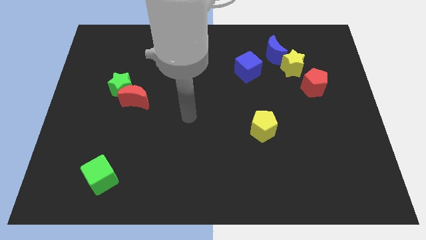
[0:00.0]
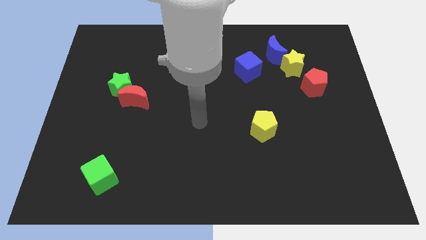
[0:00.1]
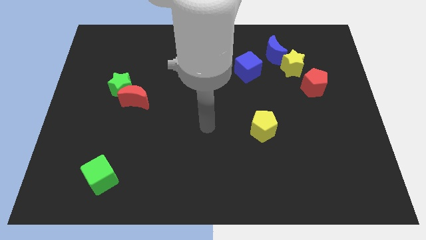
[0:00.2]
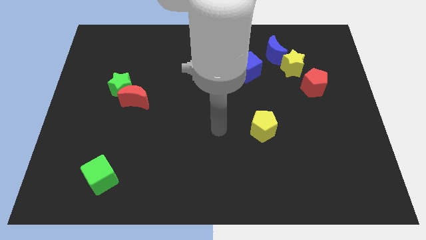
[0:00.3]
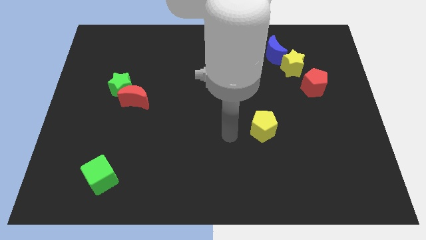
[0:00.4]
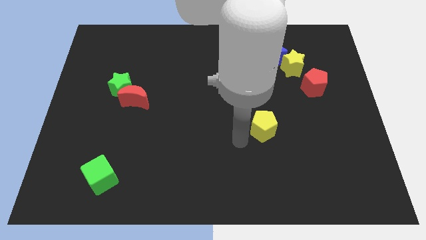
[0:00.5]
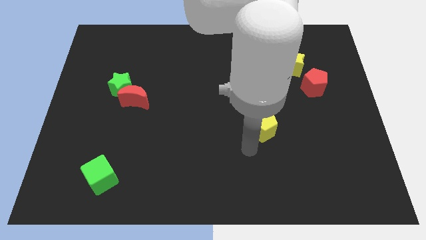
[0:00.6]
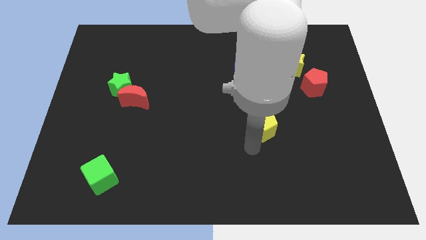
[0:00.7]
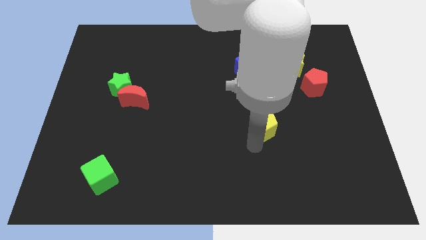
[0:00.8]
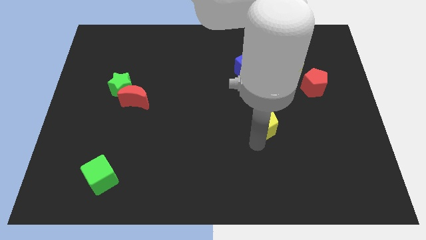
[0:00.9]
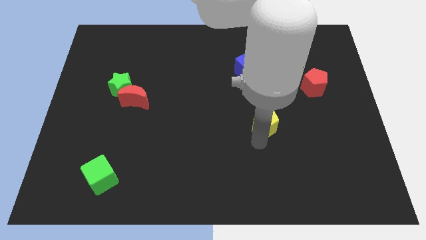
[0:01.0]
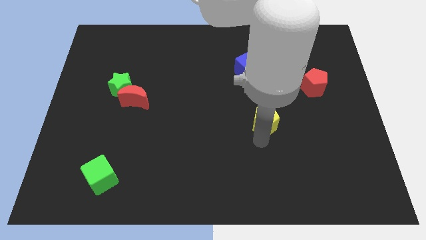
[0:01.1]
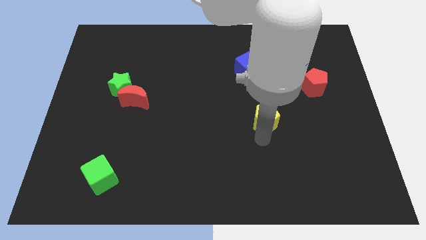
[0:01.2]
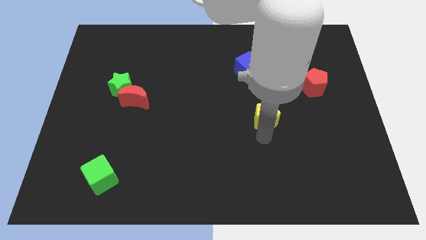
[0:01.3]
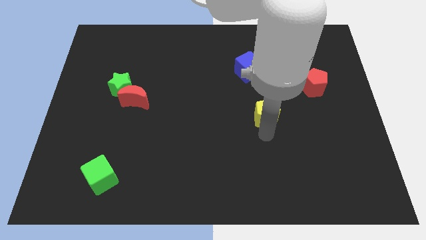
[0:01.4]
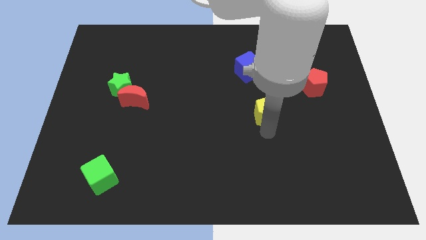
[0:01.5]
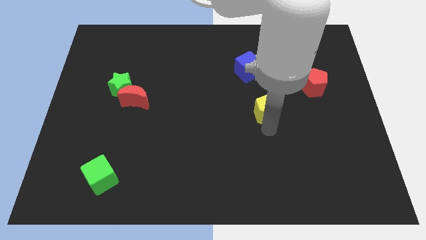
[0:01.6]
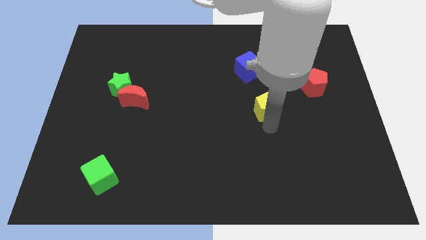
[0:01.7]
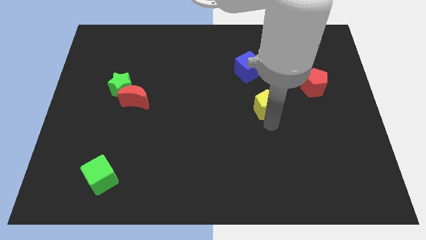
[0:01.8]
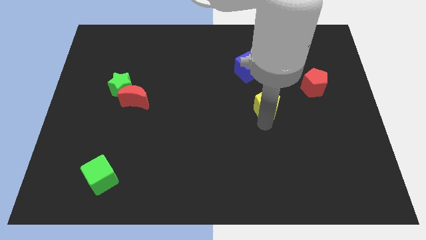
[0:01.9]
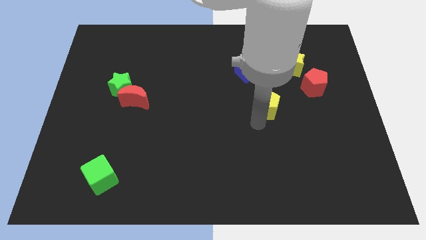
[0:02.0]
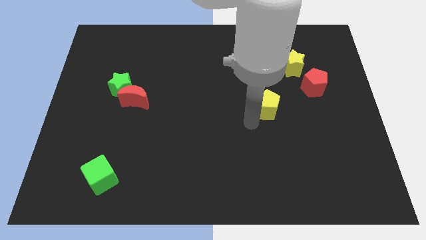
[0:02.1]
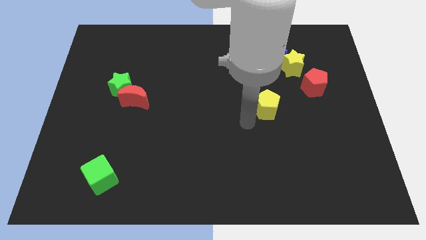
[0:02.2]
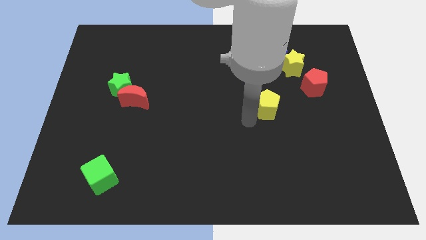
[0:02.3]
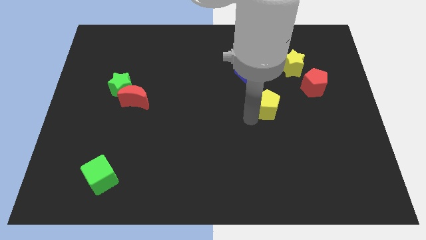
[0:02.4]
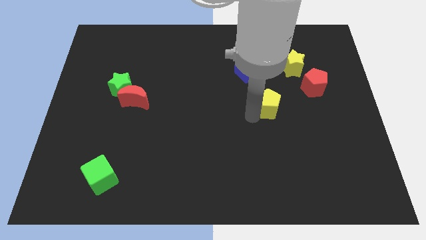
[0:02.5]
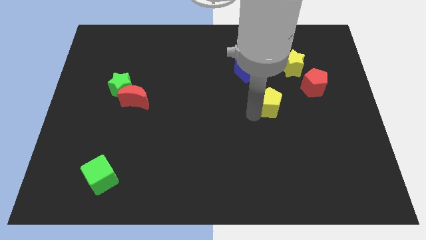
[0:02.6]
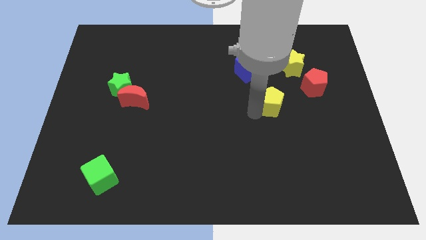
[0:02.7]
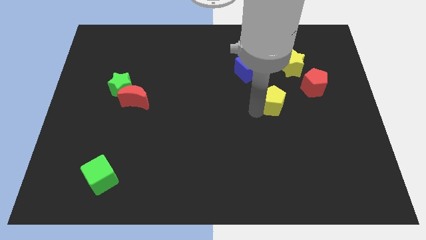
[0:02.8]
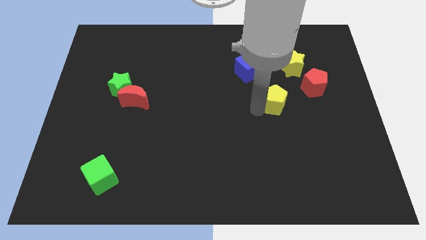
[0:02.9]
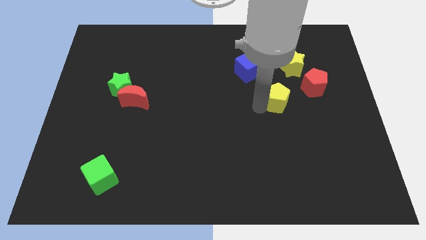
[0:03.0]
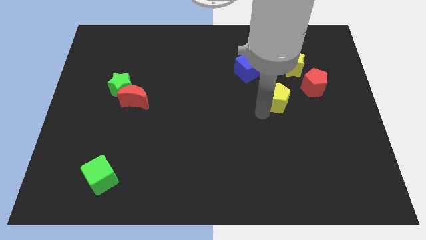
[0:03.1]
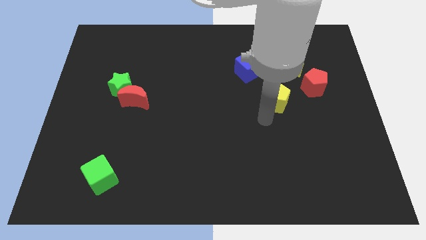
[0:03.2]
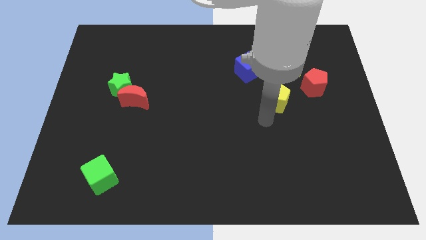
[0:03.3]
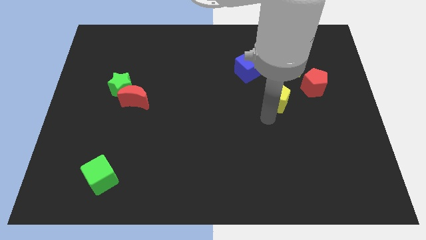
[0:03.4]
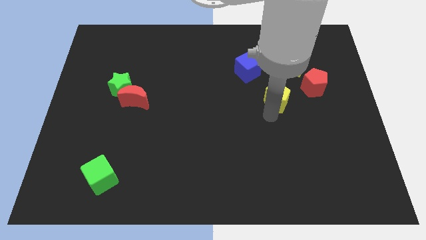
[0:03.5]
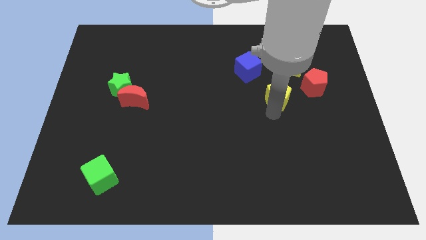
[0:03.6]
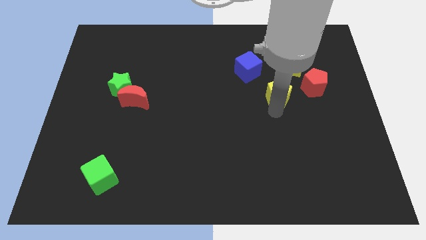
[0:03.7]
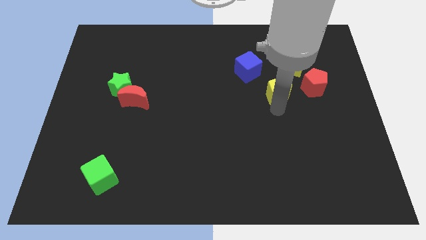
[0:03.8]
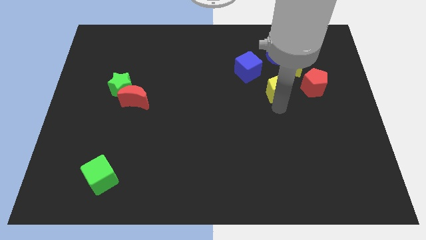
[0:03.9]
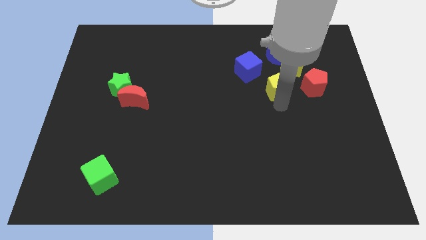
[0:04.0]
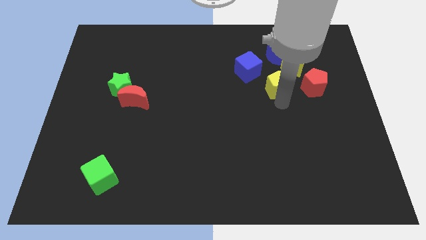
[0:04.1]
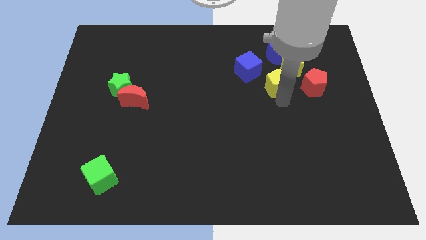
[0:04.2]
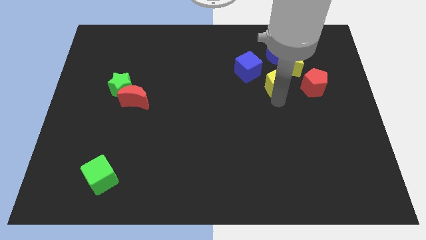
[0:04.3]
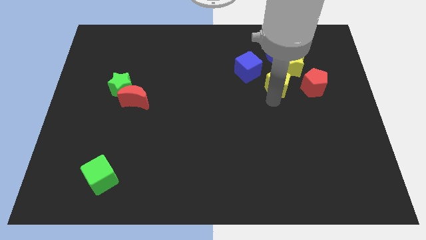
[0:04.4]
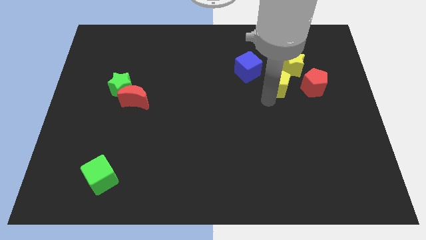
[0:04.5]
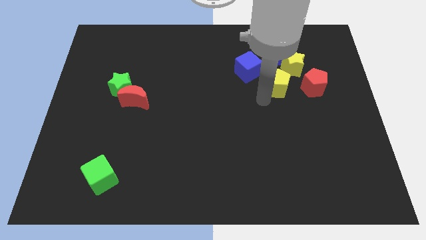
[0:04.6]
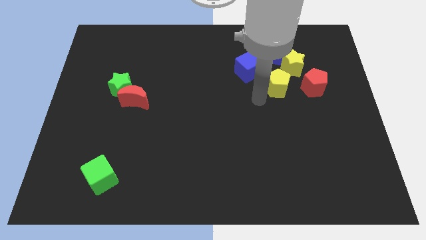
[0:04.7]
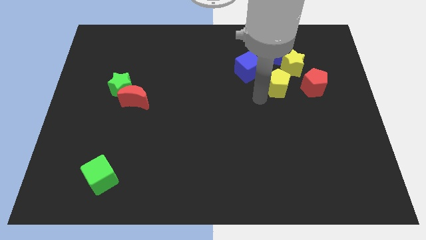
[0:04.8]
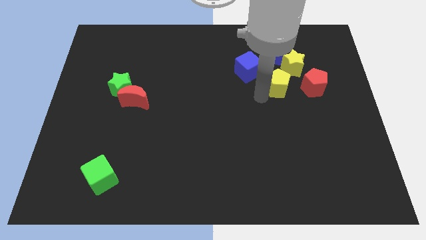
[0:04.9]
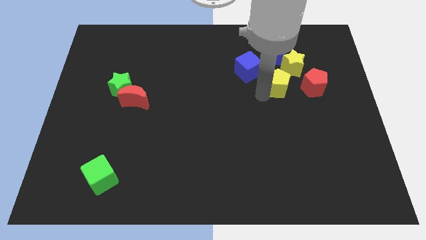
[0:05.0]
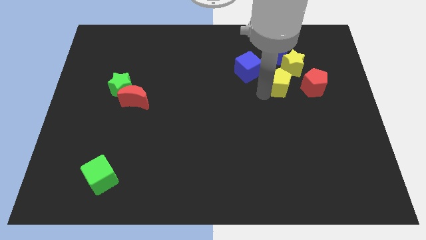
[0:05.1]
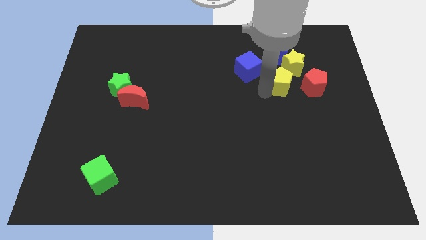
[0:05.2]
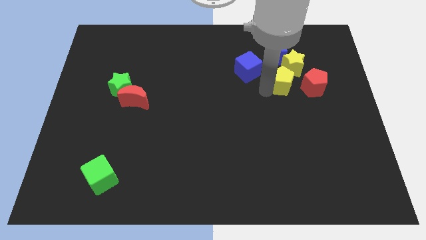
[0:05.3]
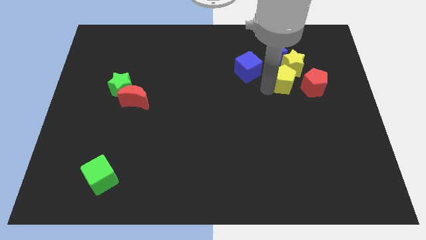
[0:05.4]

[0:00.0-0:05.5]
slide the yellow pentagon next to the yellow star

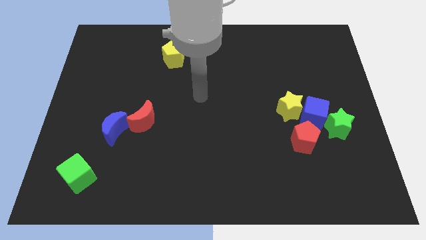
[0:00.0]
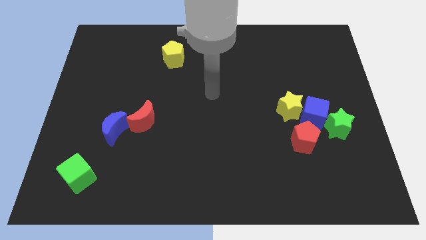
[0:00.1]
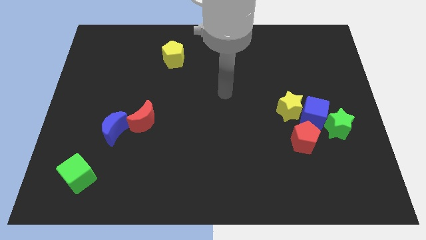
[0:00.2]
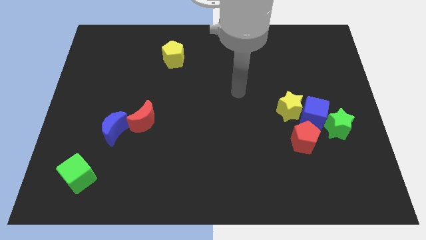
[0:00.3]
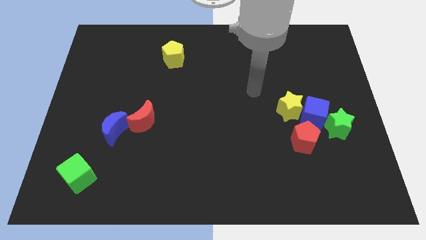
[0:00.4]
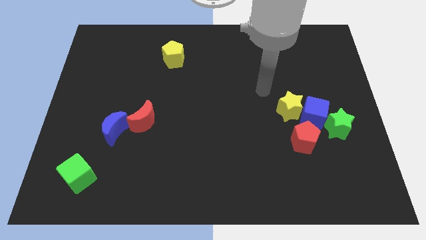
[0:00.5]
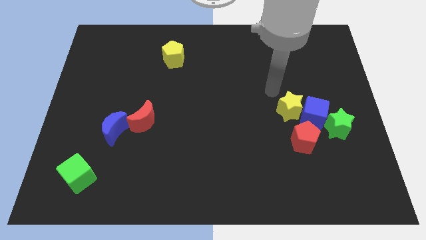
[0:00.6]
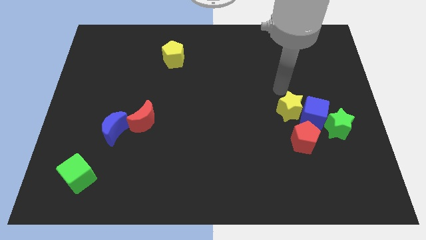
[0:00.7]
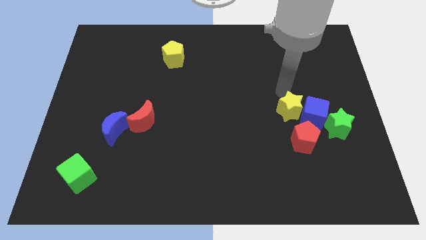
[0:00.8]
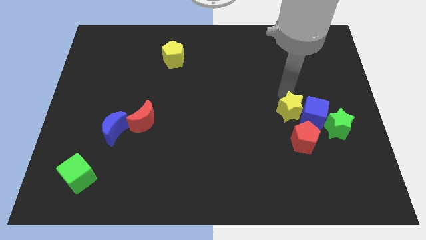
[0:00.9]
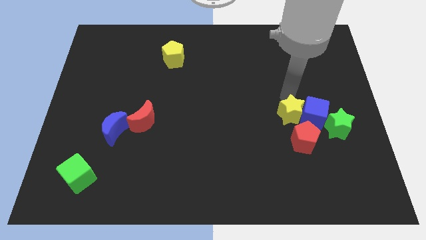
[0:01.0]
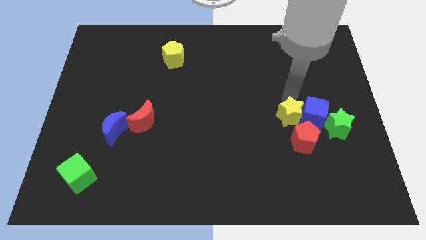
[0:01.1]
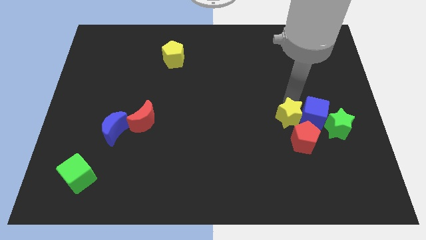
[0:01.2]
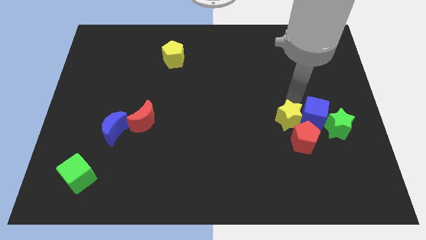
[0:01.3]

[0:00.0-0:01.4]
slide the yellow star towards the red pentagon
